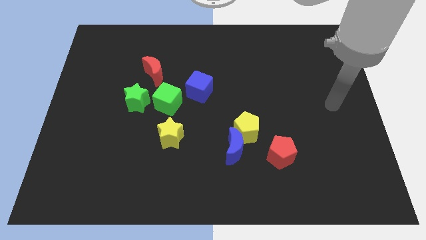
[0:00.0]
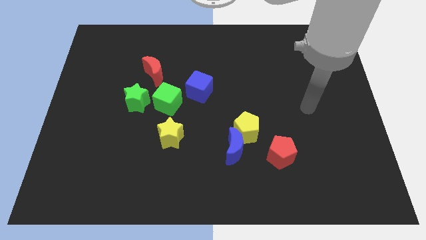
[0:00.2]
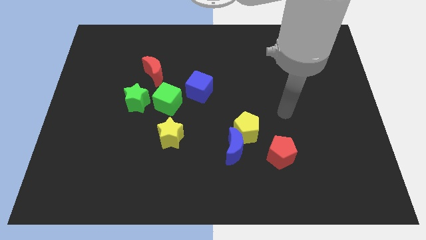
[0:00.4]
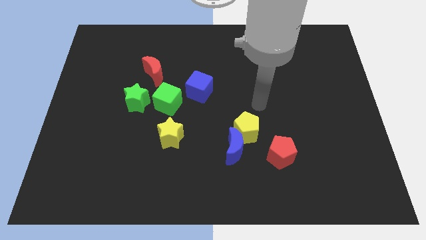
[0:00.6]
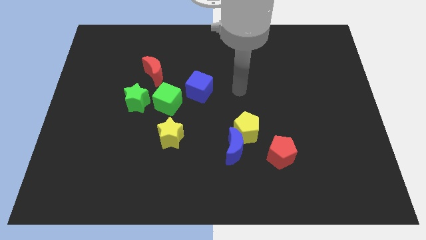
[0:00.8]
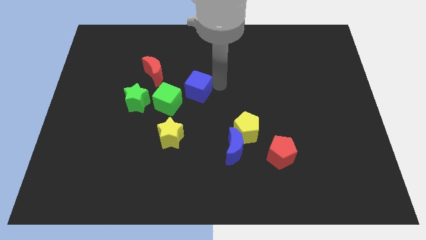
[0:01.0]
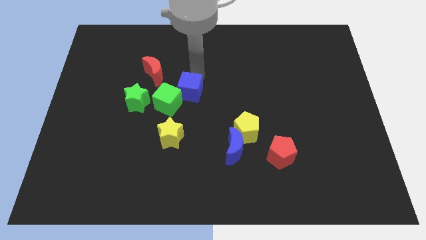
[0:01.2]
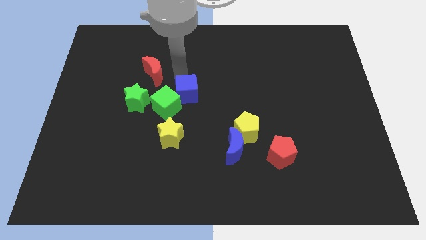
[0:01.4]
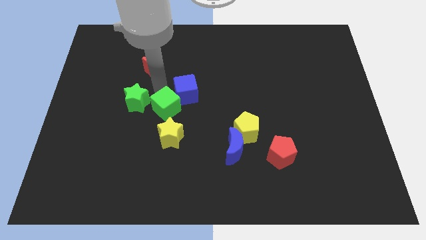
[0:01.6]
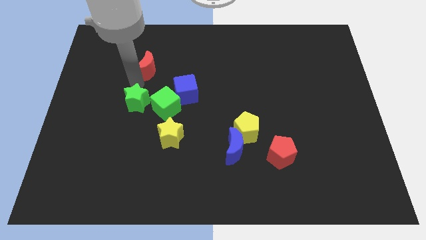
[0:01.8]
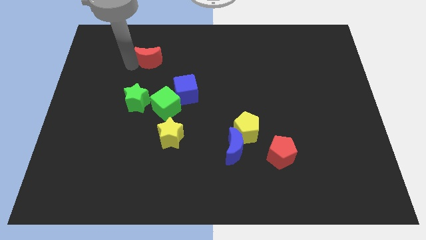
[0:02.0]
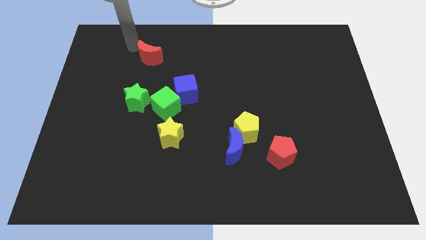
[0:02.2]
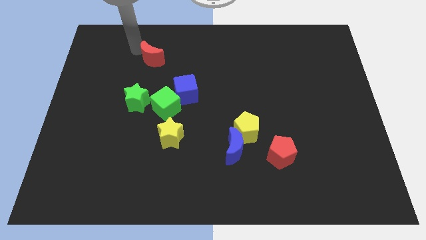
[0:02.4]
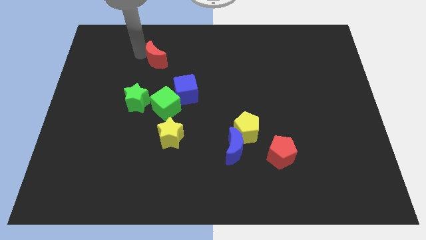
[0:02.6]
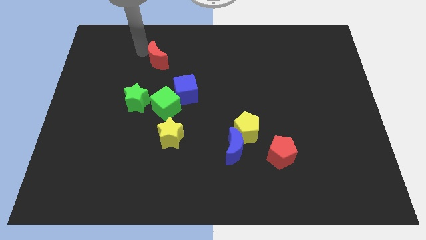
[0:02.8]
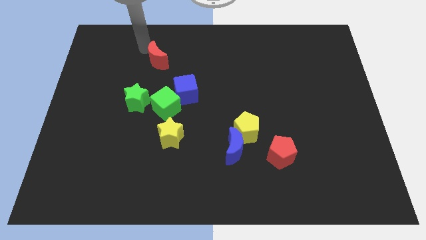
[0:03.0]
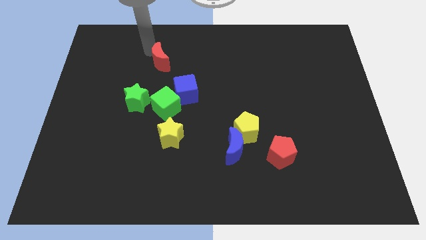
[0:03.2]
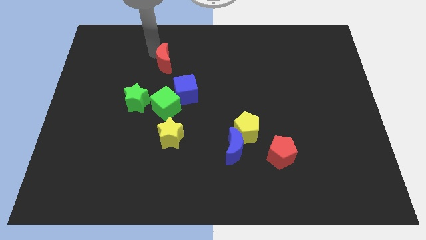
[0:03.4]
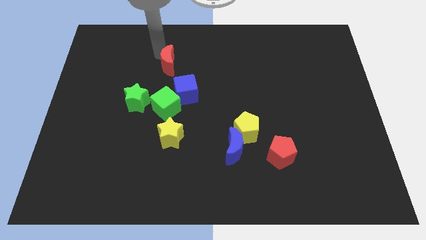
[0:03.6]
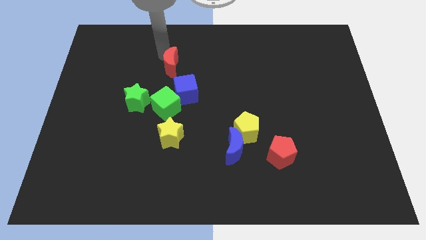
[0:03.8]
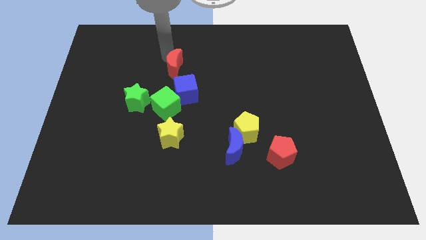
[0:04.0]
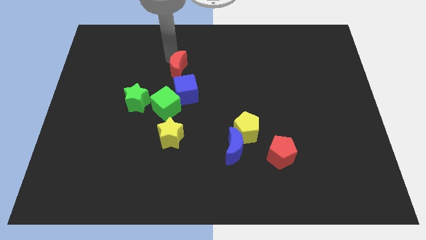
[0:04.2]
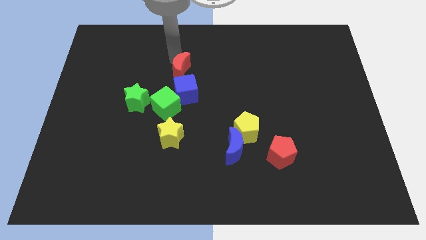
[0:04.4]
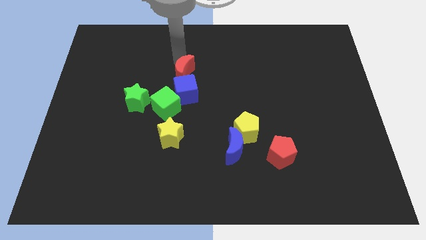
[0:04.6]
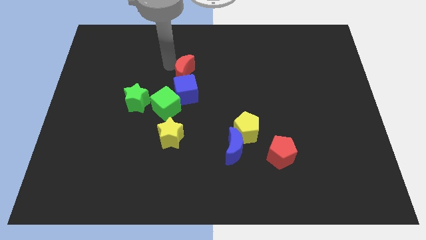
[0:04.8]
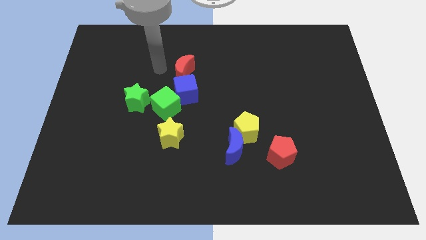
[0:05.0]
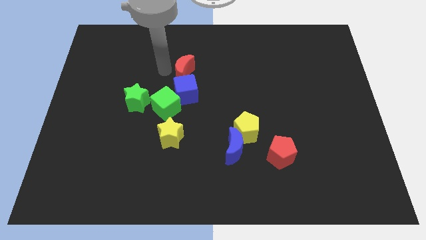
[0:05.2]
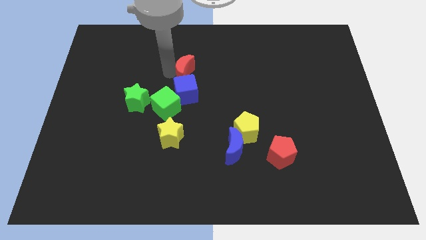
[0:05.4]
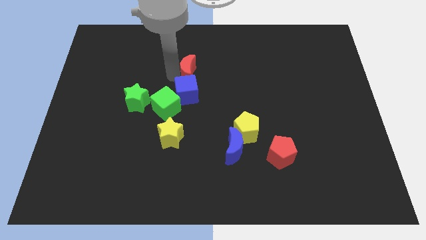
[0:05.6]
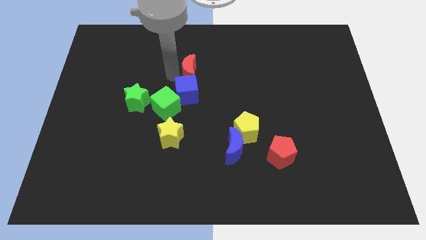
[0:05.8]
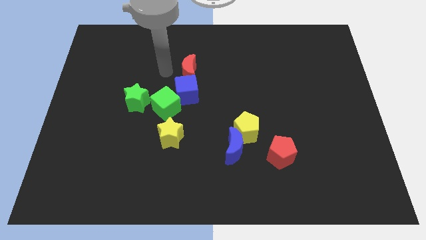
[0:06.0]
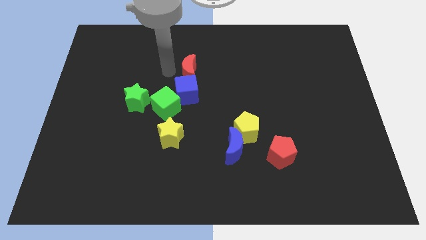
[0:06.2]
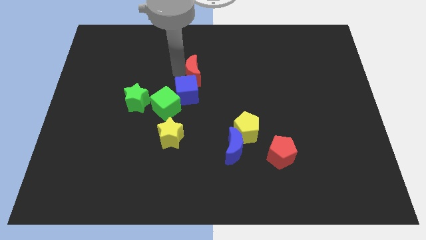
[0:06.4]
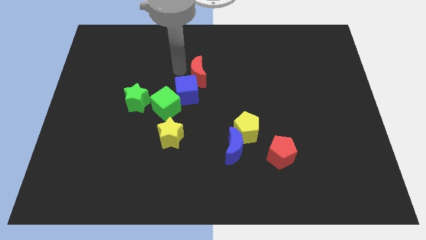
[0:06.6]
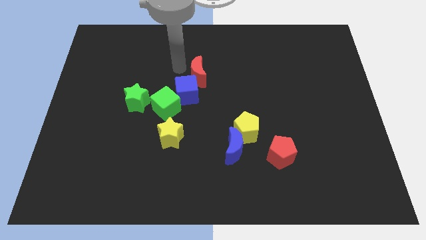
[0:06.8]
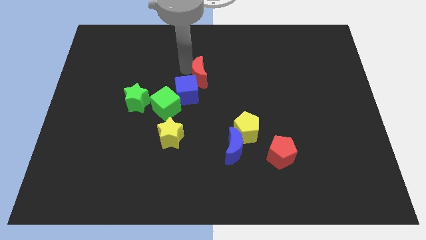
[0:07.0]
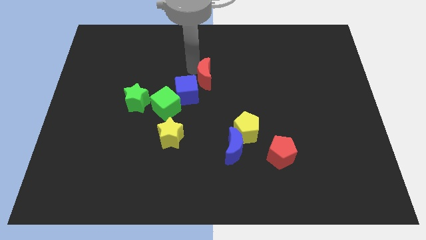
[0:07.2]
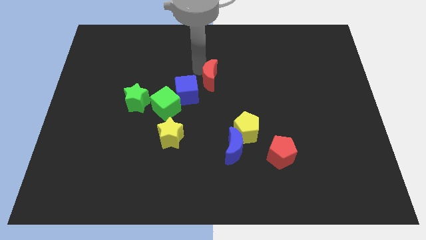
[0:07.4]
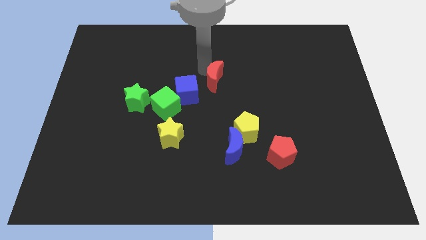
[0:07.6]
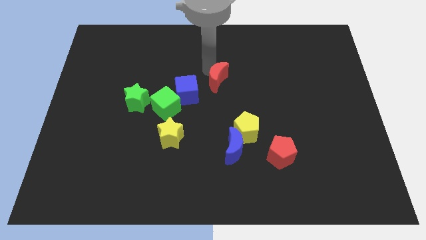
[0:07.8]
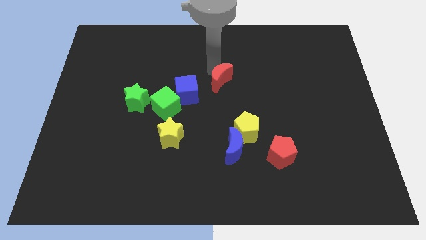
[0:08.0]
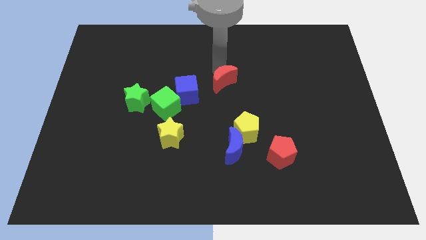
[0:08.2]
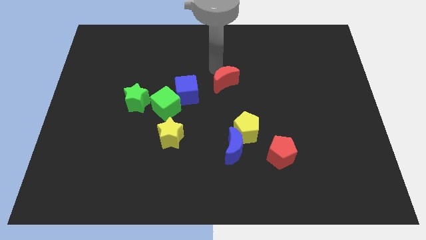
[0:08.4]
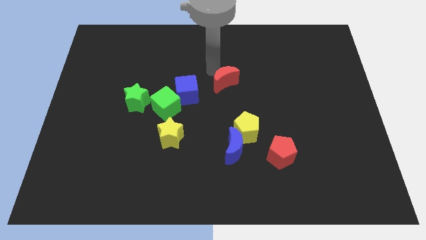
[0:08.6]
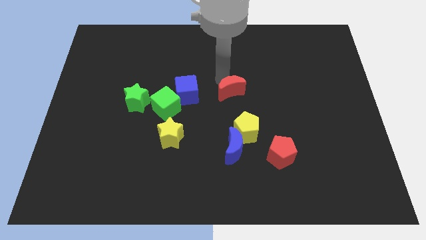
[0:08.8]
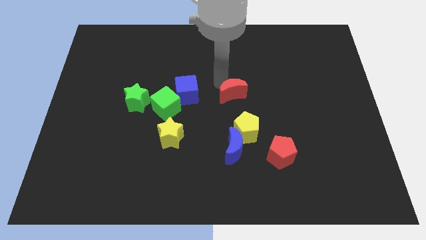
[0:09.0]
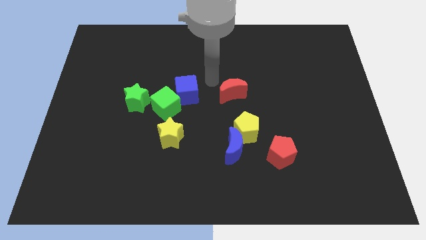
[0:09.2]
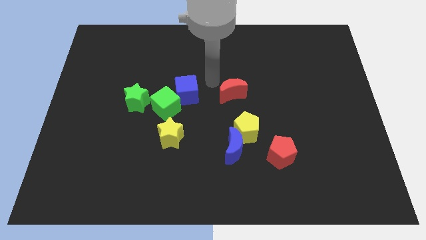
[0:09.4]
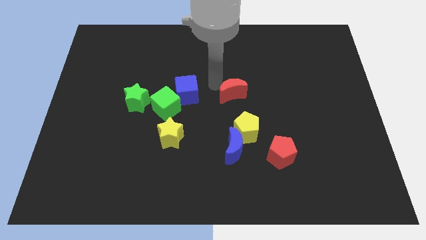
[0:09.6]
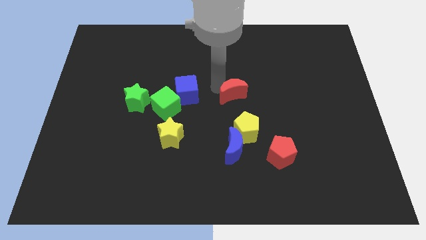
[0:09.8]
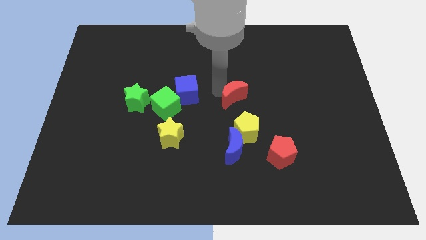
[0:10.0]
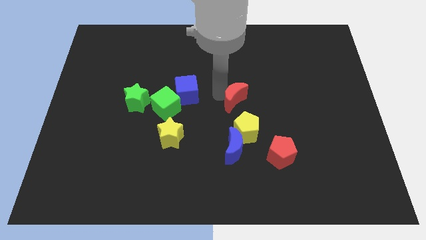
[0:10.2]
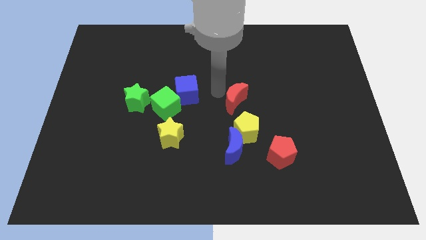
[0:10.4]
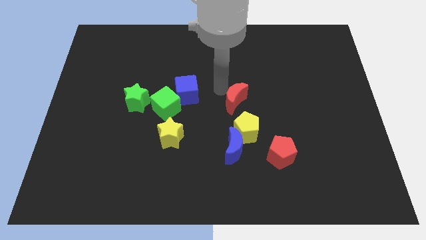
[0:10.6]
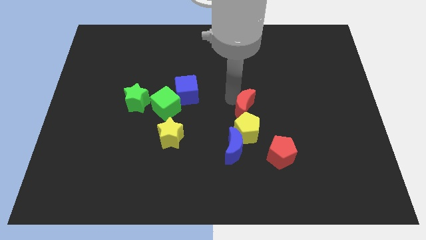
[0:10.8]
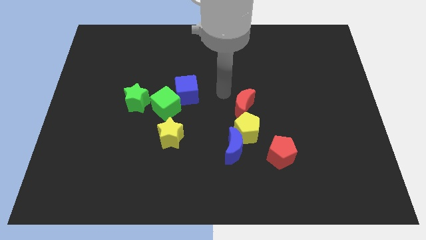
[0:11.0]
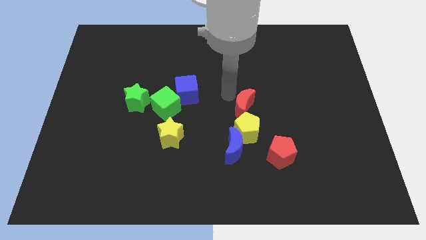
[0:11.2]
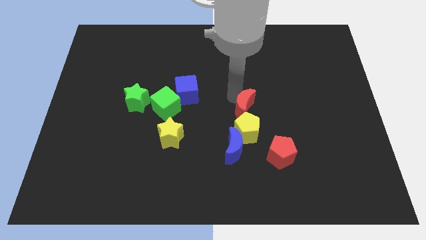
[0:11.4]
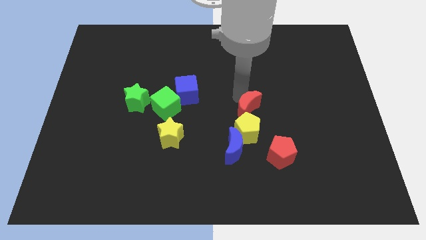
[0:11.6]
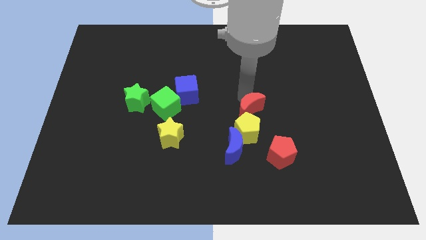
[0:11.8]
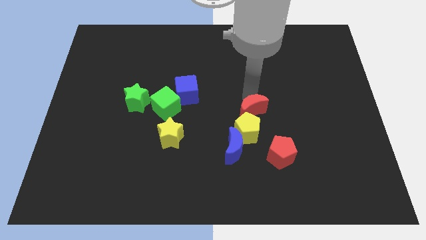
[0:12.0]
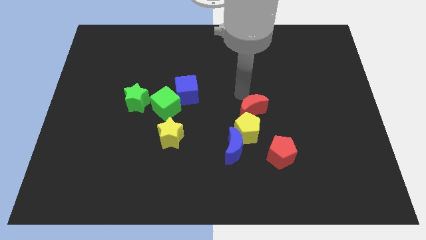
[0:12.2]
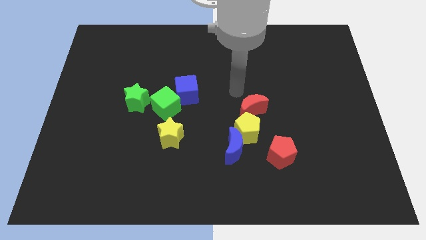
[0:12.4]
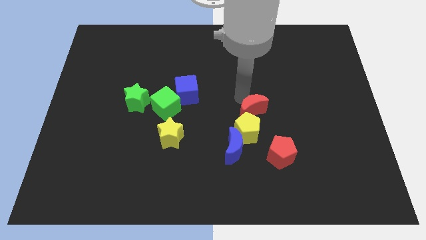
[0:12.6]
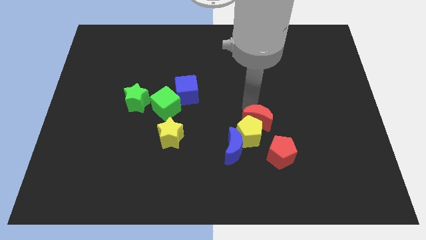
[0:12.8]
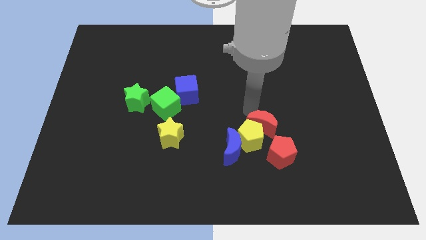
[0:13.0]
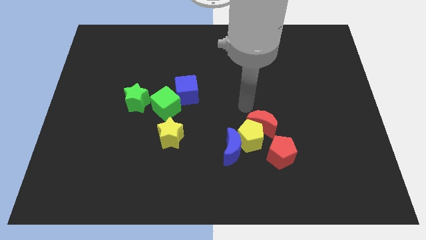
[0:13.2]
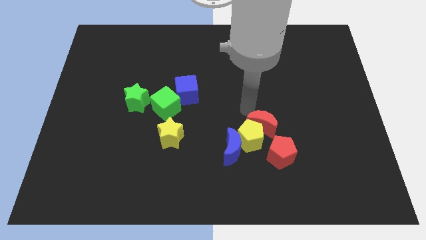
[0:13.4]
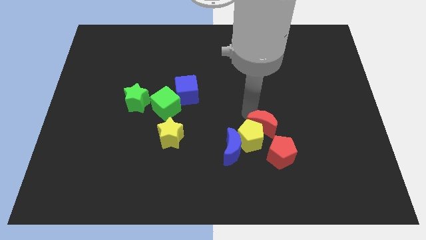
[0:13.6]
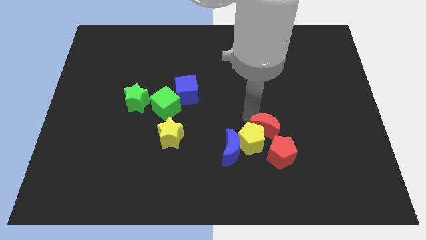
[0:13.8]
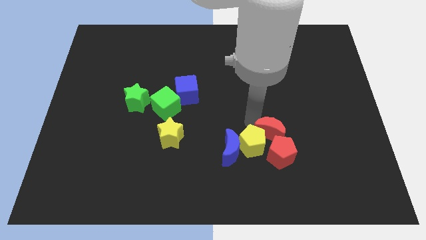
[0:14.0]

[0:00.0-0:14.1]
push the red moon next to the red pentagon
